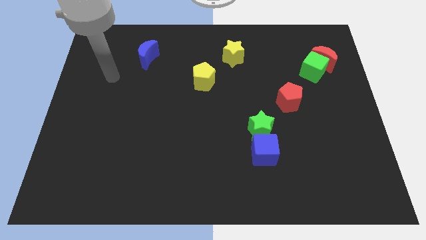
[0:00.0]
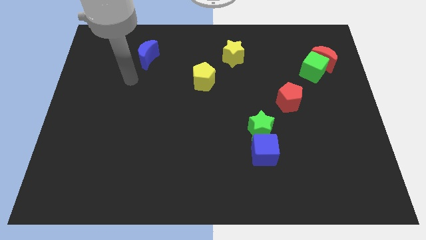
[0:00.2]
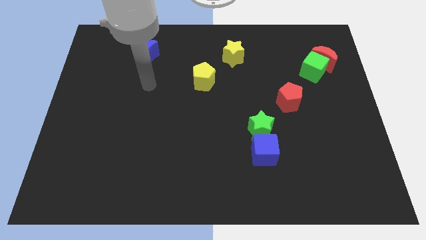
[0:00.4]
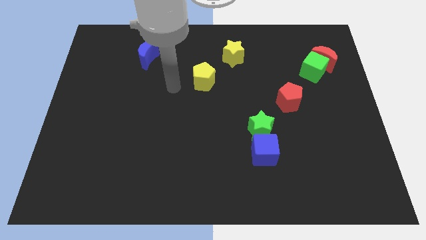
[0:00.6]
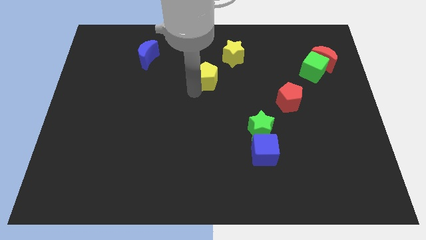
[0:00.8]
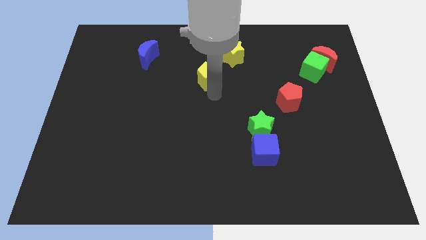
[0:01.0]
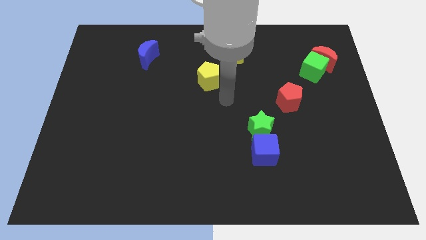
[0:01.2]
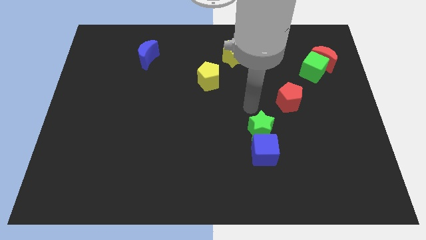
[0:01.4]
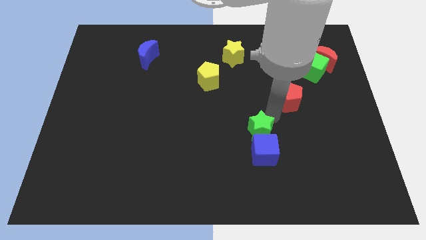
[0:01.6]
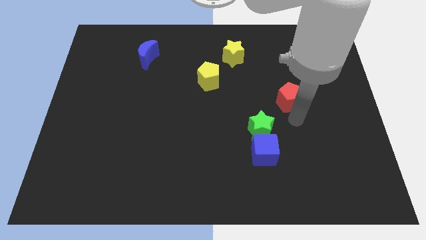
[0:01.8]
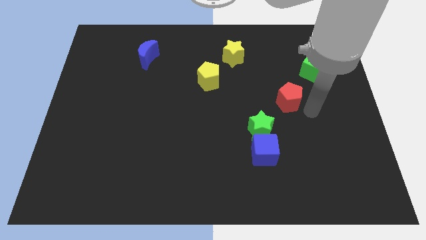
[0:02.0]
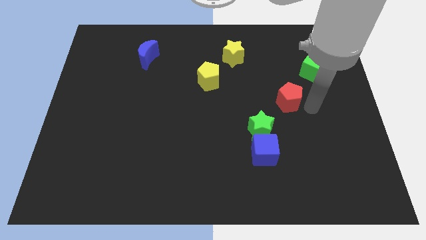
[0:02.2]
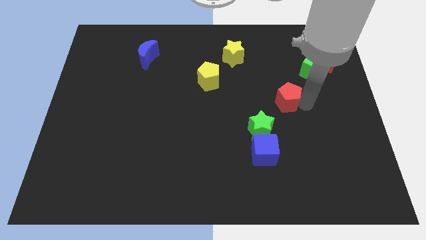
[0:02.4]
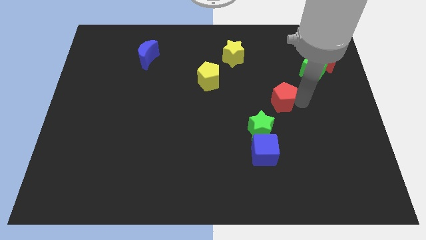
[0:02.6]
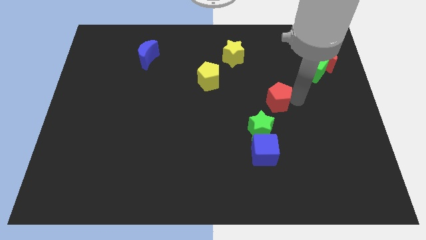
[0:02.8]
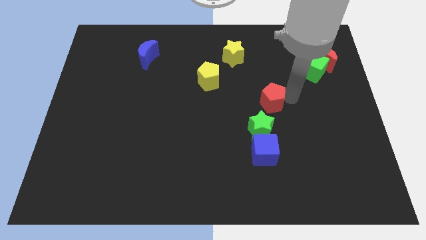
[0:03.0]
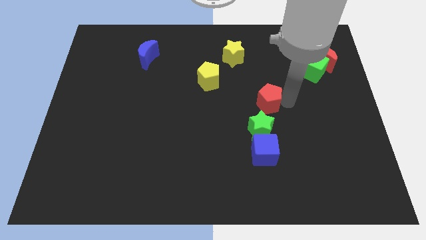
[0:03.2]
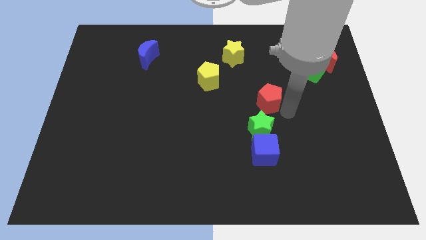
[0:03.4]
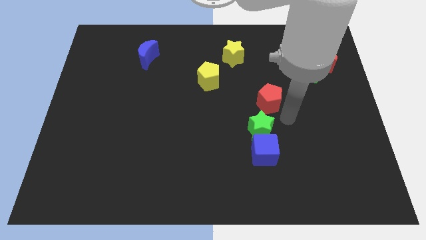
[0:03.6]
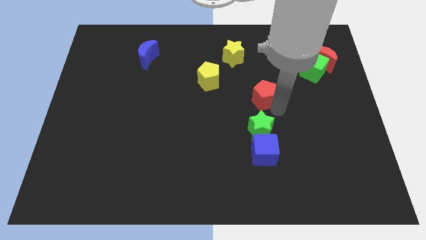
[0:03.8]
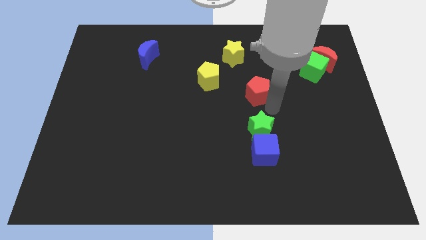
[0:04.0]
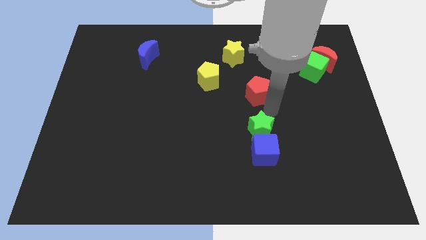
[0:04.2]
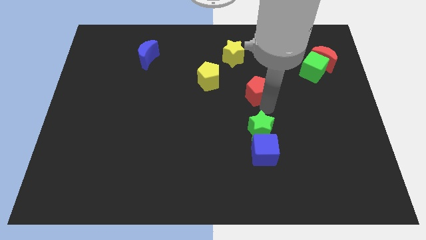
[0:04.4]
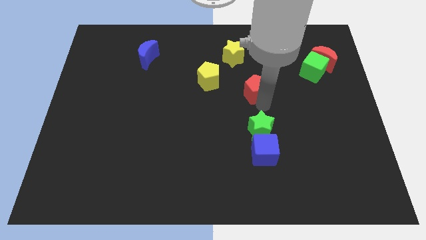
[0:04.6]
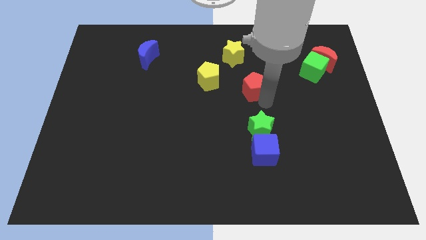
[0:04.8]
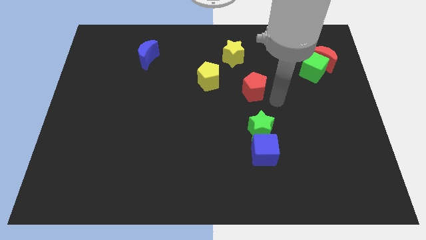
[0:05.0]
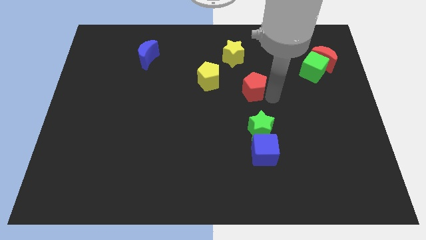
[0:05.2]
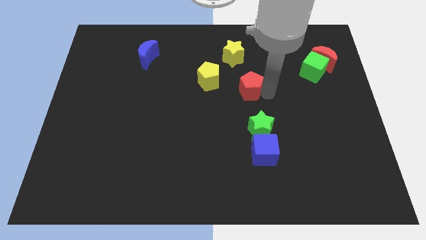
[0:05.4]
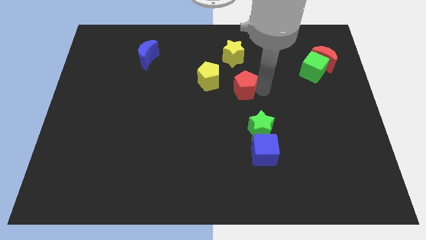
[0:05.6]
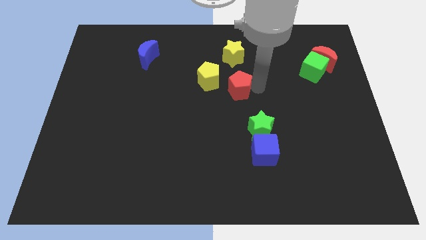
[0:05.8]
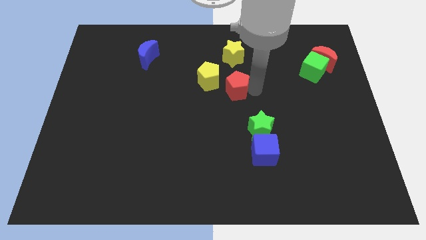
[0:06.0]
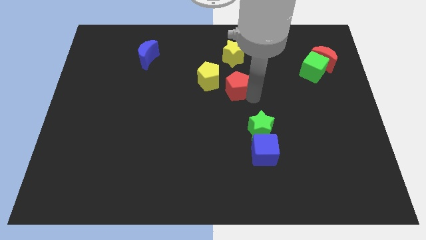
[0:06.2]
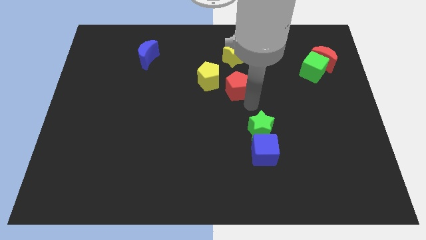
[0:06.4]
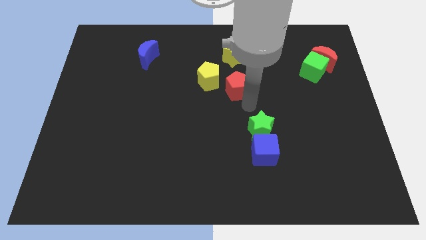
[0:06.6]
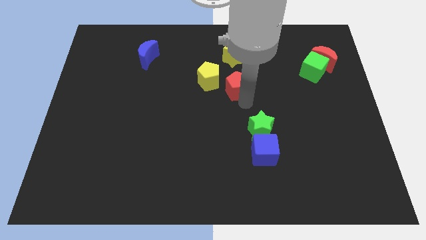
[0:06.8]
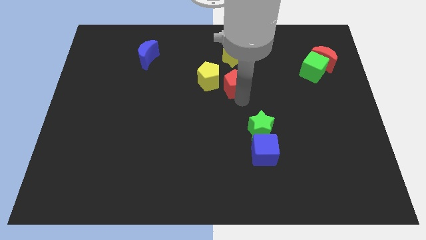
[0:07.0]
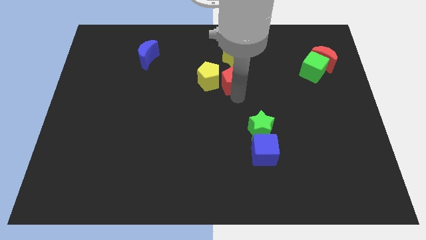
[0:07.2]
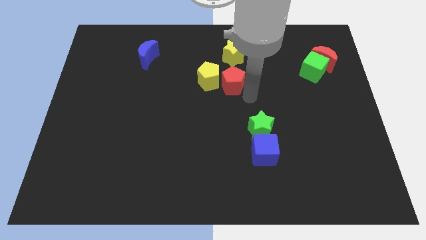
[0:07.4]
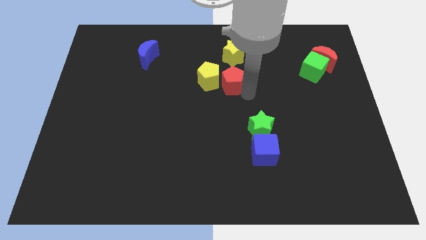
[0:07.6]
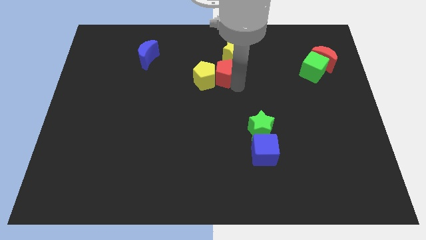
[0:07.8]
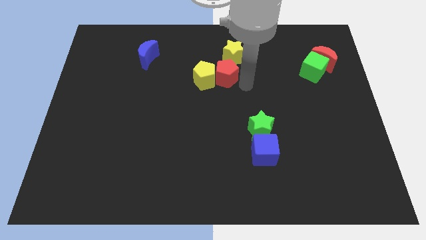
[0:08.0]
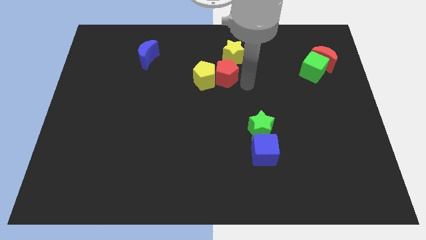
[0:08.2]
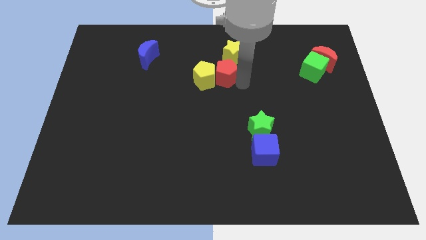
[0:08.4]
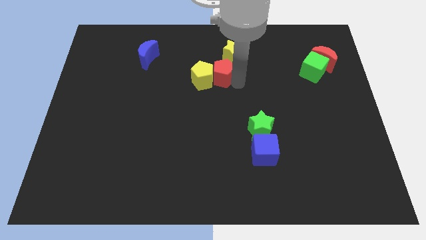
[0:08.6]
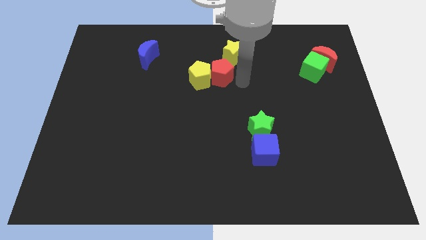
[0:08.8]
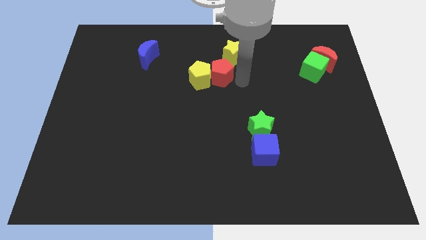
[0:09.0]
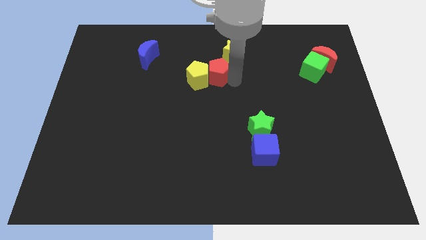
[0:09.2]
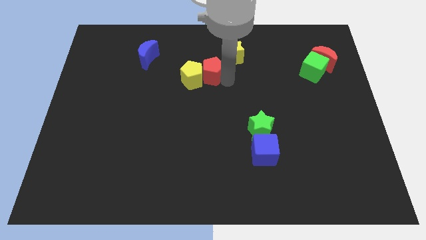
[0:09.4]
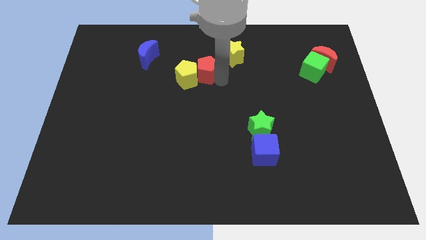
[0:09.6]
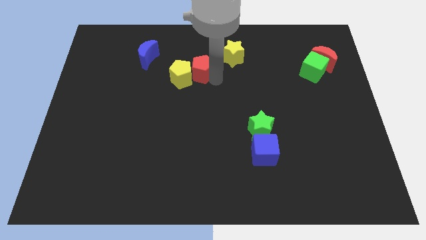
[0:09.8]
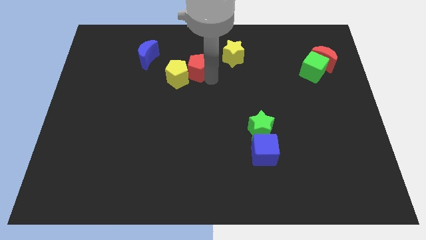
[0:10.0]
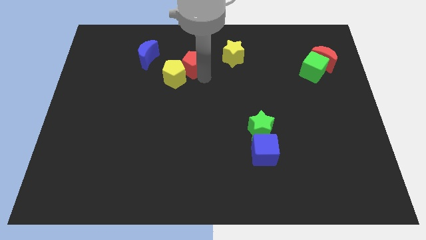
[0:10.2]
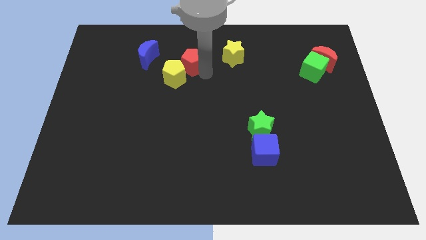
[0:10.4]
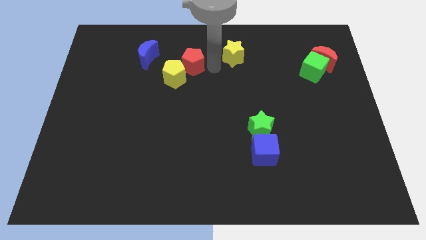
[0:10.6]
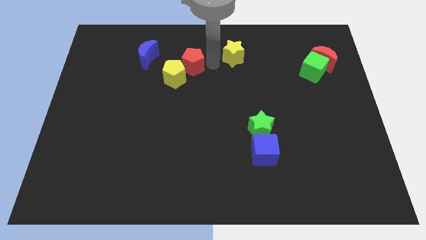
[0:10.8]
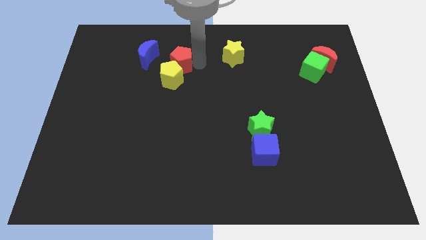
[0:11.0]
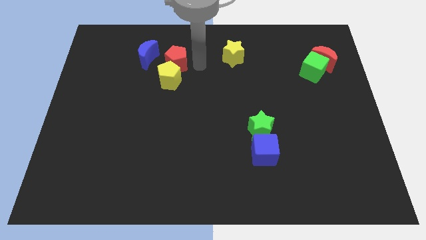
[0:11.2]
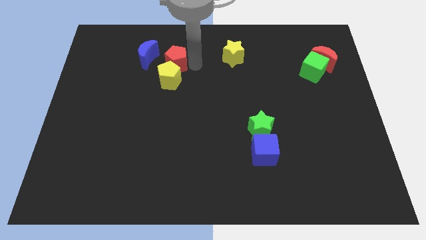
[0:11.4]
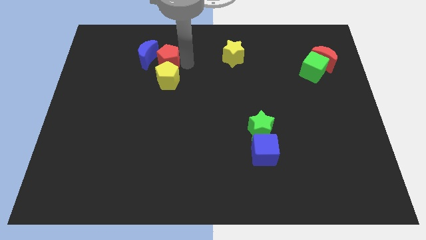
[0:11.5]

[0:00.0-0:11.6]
put the red pentagon close to the blue moon

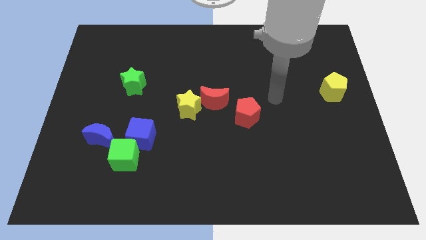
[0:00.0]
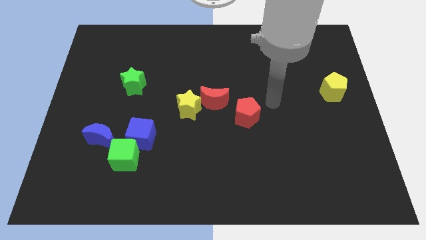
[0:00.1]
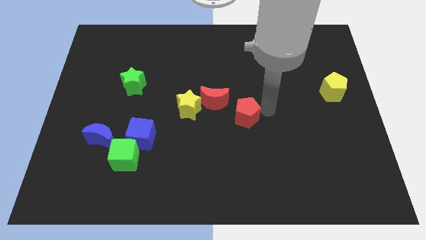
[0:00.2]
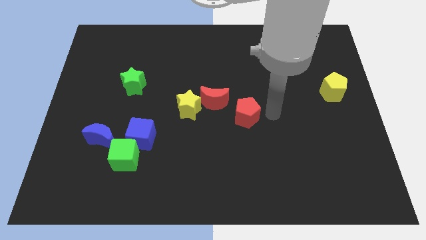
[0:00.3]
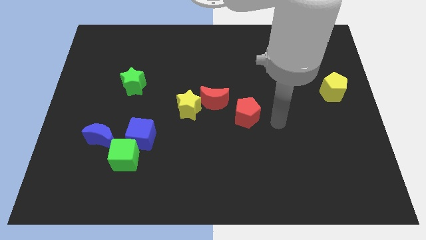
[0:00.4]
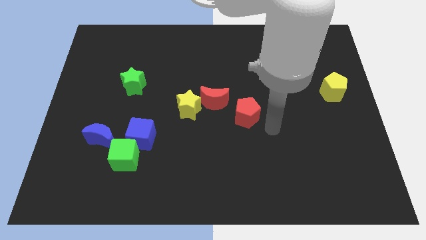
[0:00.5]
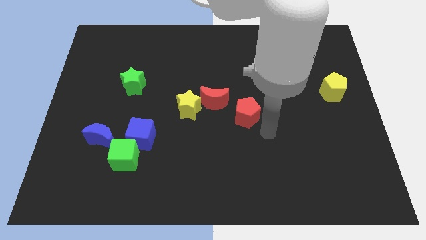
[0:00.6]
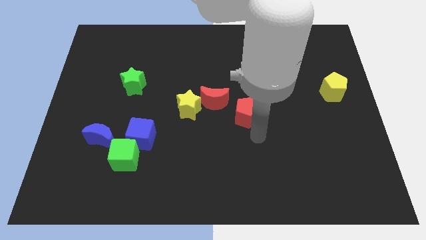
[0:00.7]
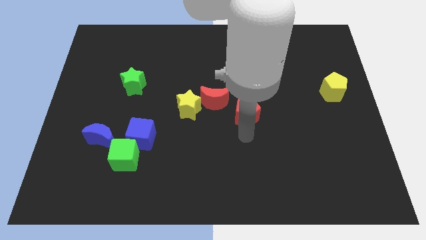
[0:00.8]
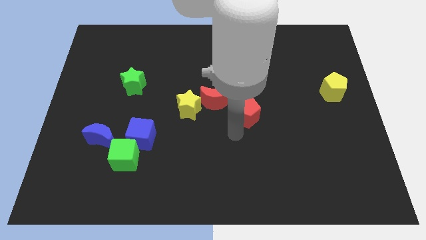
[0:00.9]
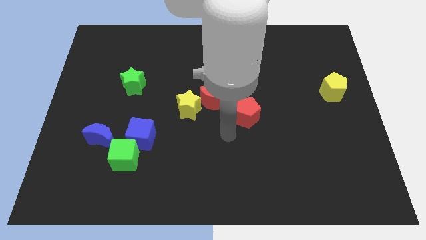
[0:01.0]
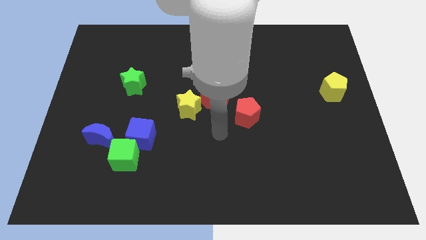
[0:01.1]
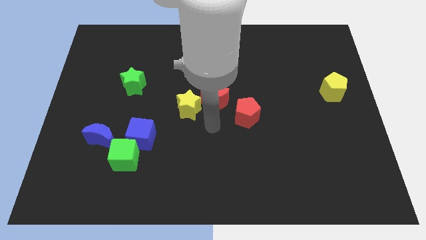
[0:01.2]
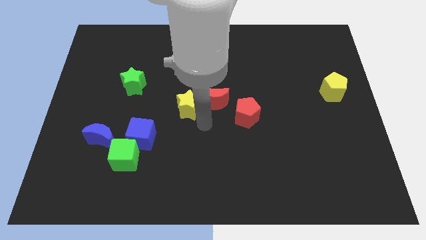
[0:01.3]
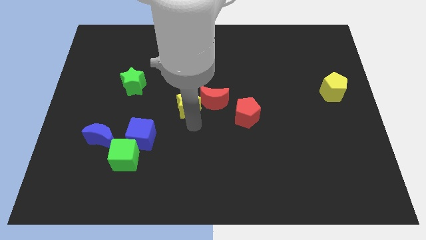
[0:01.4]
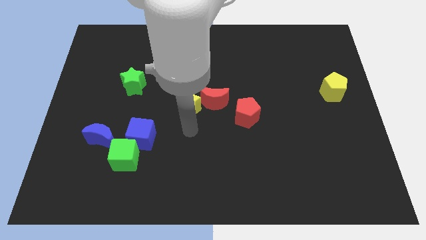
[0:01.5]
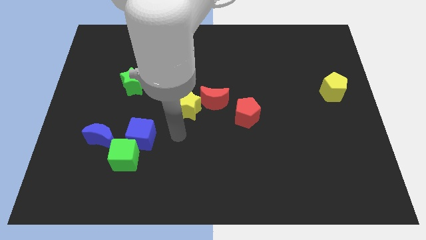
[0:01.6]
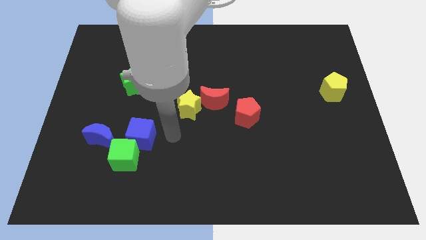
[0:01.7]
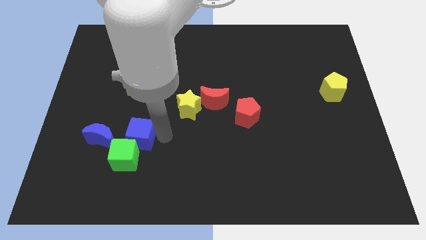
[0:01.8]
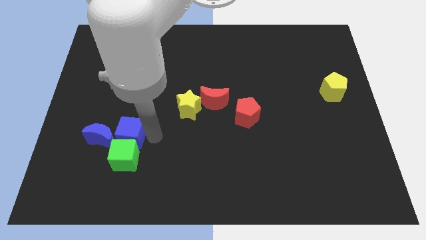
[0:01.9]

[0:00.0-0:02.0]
slide the blue cube towards the blue moon
